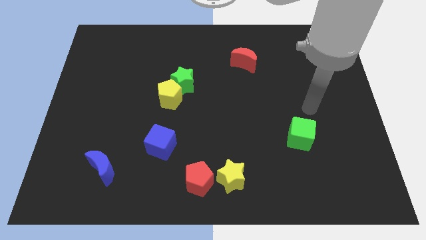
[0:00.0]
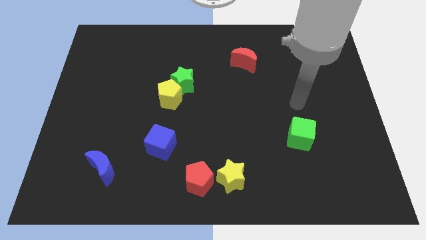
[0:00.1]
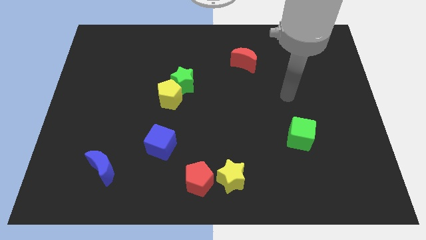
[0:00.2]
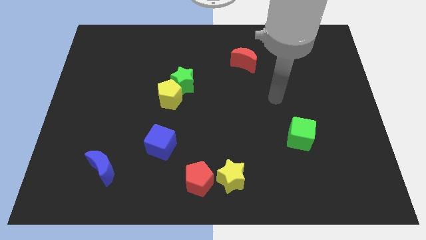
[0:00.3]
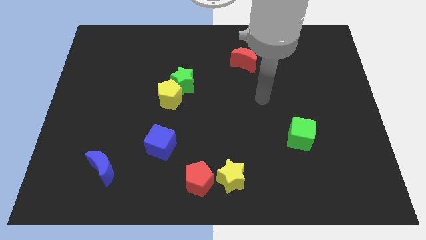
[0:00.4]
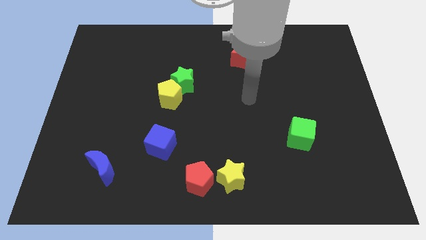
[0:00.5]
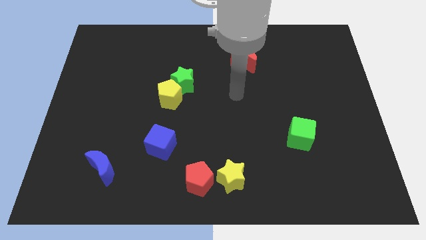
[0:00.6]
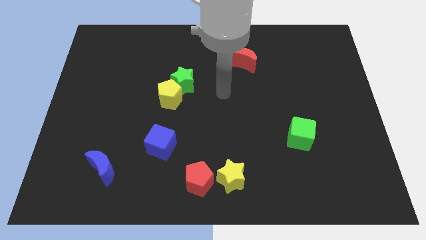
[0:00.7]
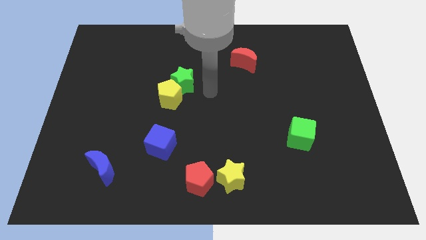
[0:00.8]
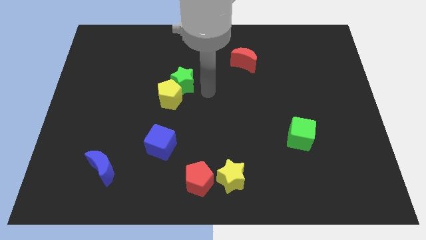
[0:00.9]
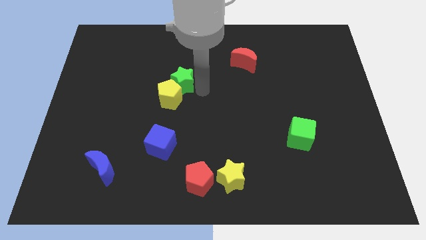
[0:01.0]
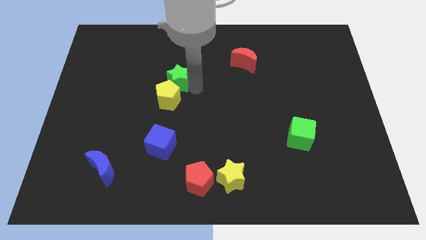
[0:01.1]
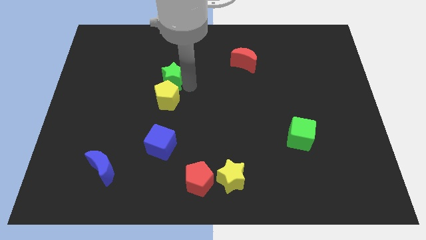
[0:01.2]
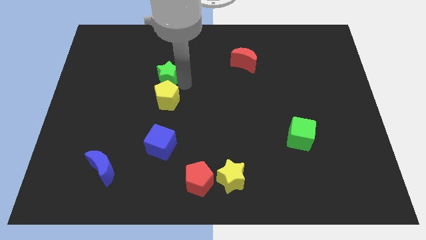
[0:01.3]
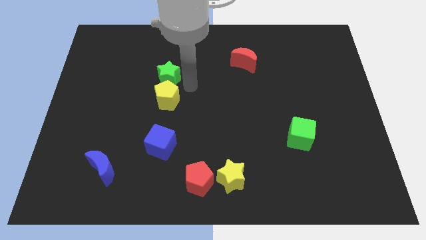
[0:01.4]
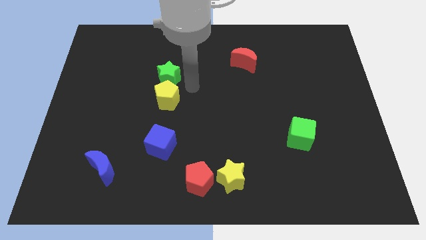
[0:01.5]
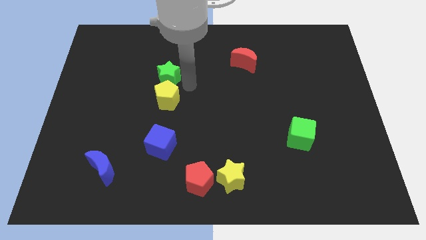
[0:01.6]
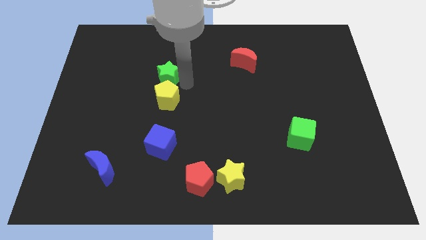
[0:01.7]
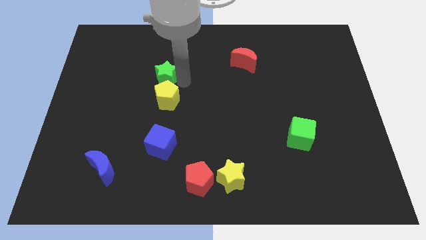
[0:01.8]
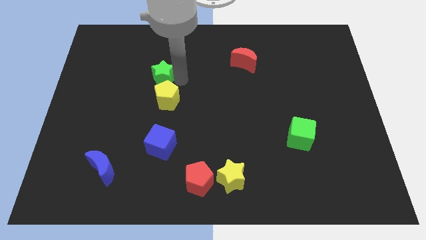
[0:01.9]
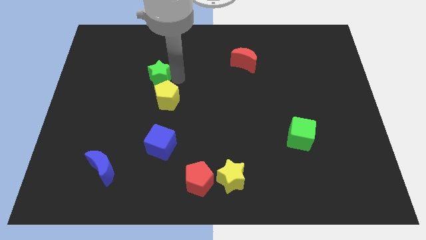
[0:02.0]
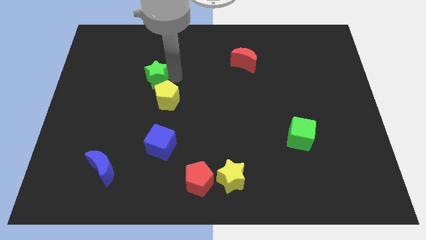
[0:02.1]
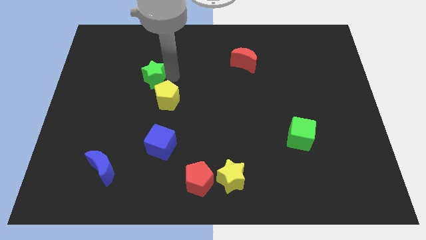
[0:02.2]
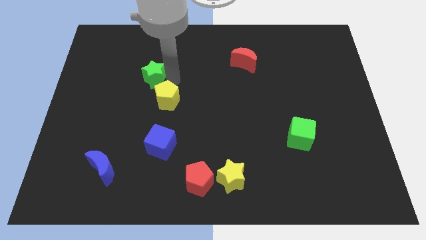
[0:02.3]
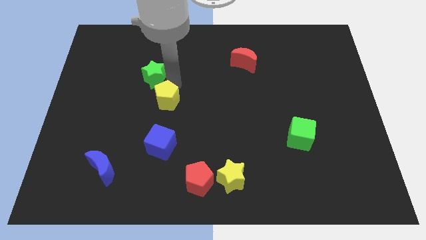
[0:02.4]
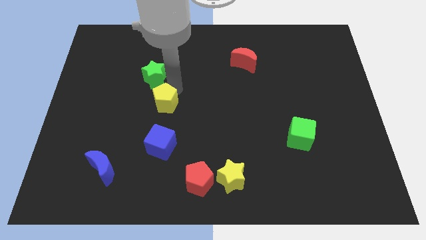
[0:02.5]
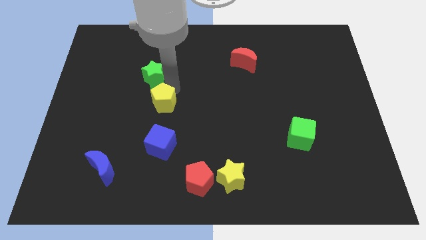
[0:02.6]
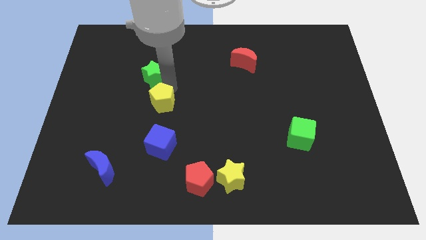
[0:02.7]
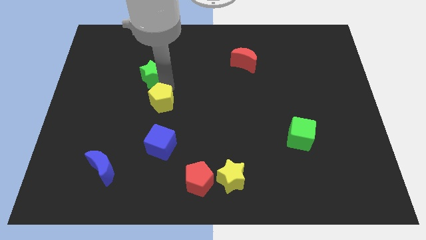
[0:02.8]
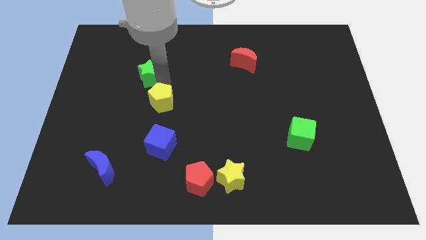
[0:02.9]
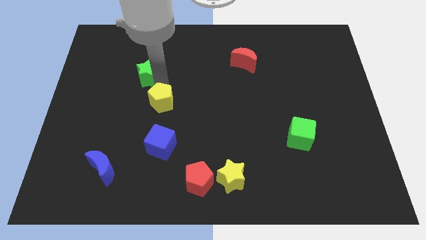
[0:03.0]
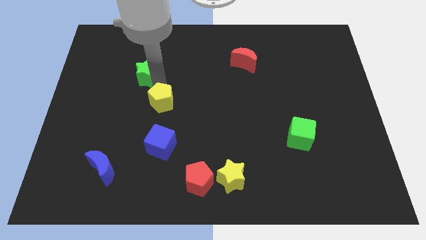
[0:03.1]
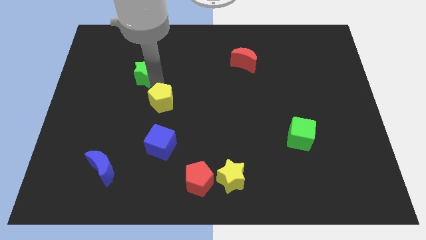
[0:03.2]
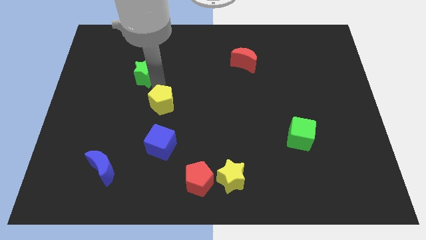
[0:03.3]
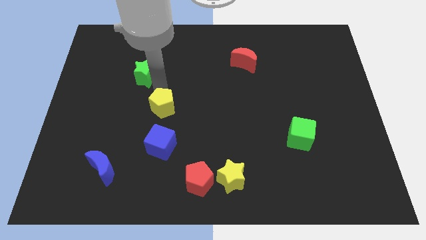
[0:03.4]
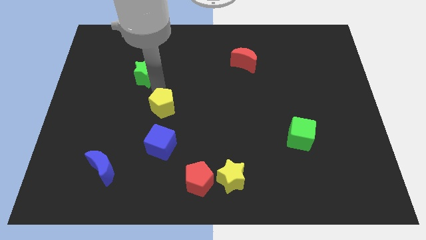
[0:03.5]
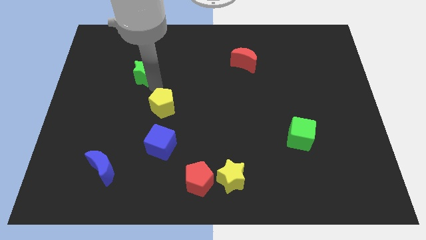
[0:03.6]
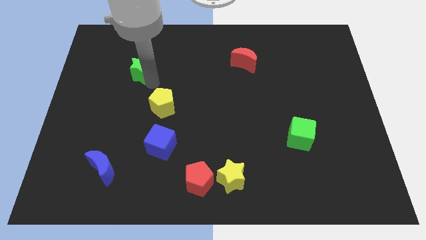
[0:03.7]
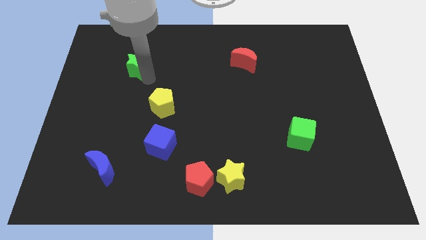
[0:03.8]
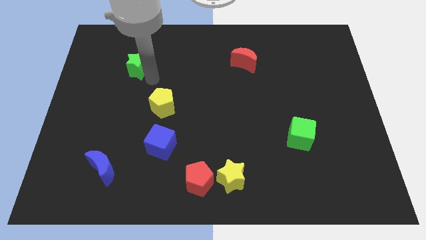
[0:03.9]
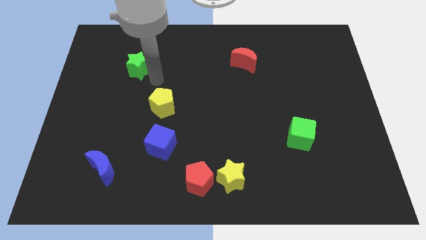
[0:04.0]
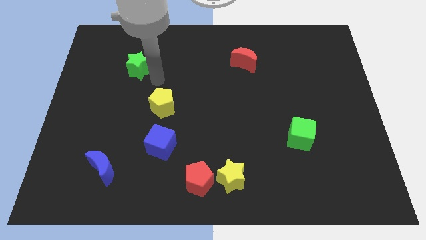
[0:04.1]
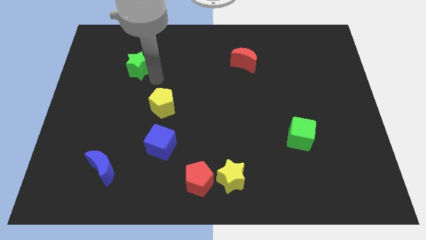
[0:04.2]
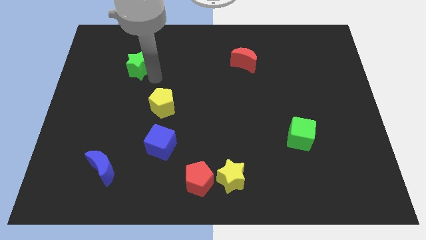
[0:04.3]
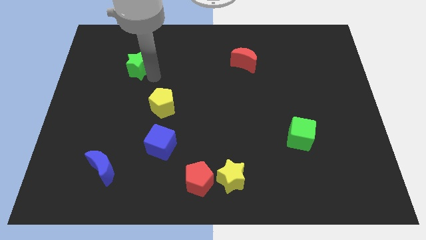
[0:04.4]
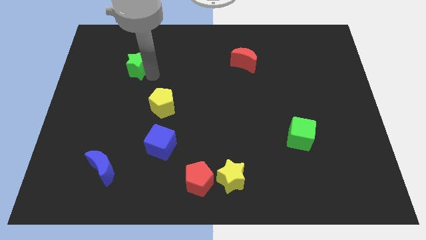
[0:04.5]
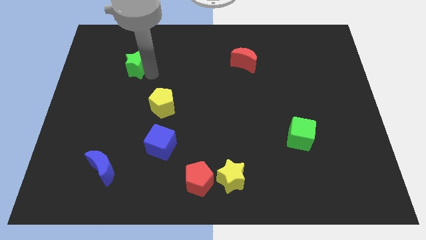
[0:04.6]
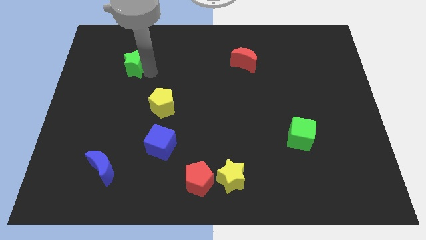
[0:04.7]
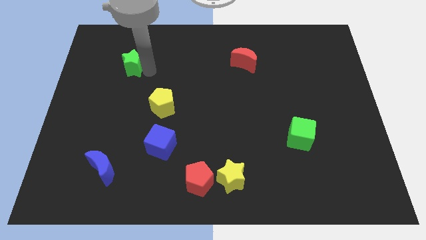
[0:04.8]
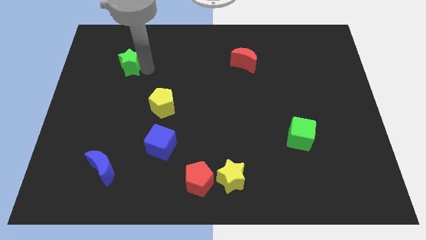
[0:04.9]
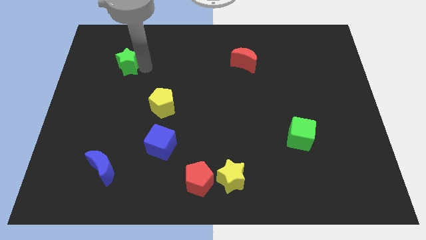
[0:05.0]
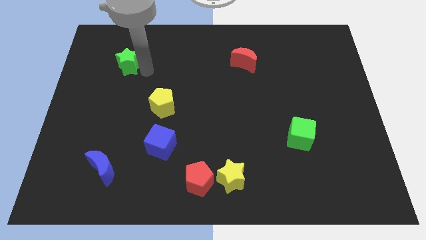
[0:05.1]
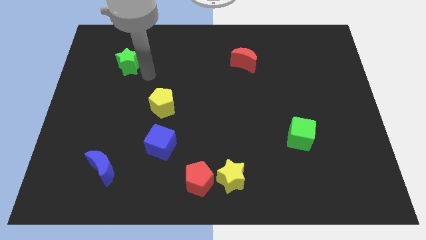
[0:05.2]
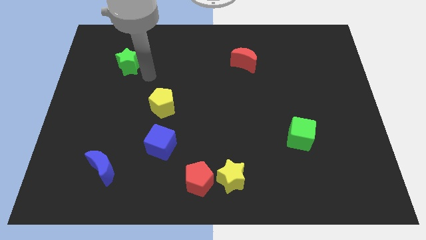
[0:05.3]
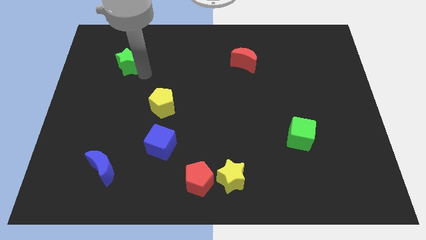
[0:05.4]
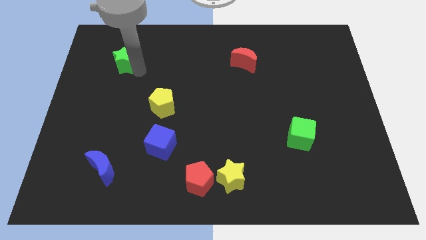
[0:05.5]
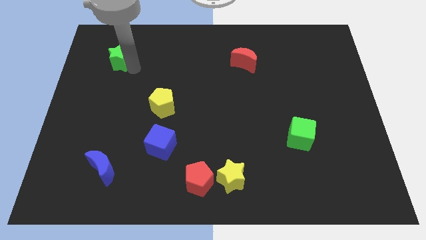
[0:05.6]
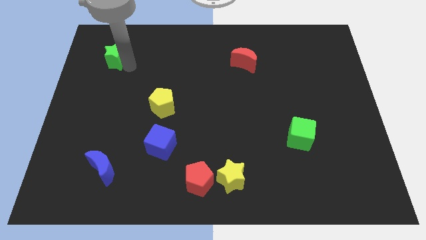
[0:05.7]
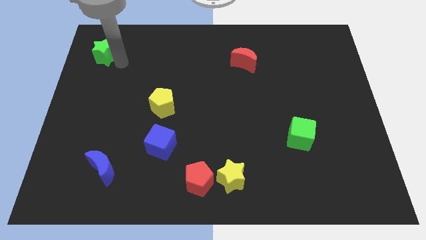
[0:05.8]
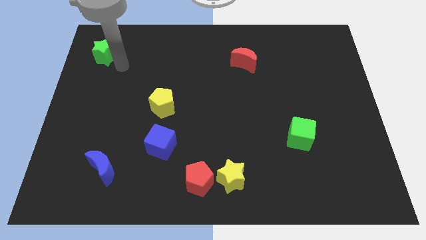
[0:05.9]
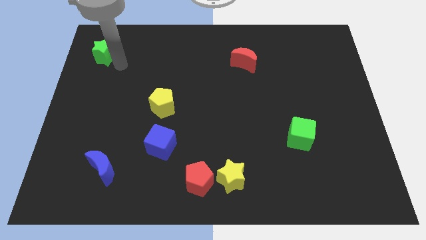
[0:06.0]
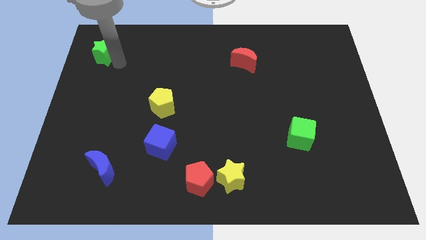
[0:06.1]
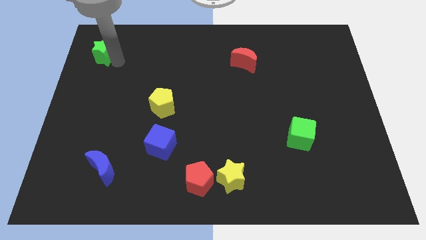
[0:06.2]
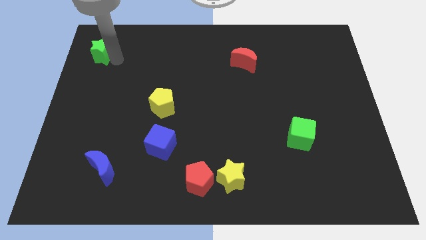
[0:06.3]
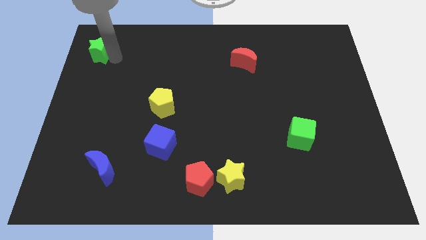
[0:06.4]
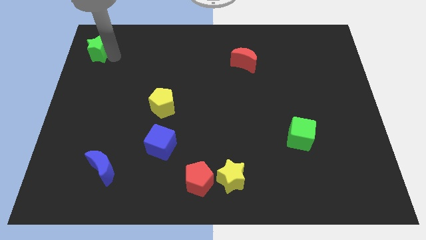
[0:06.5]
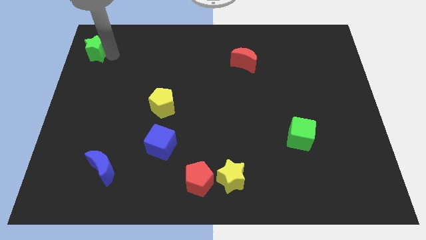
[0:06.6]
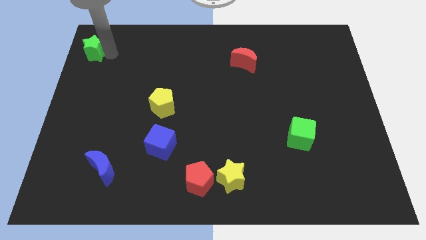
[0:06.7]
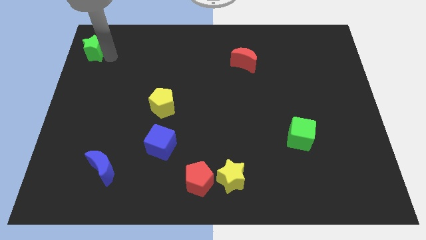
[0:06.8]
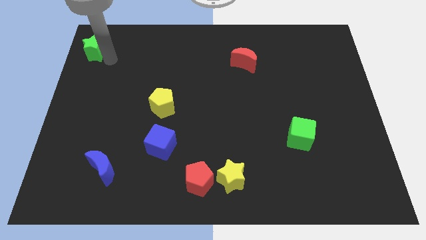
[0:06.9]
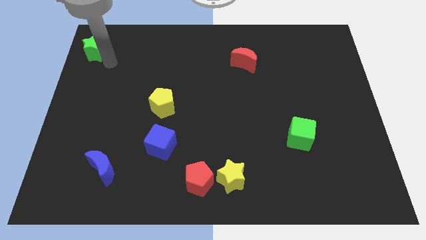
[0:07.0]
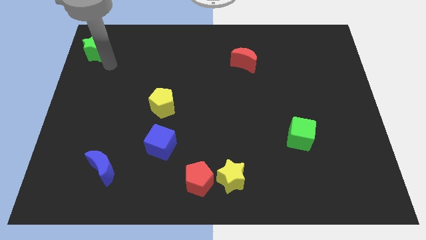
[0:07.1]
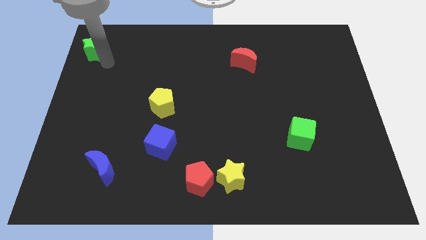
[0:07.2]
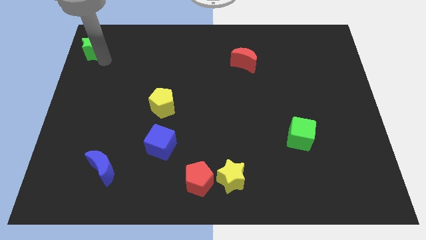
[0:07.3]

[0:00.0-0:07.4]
move the green star to the top left corner

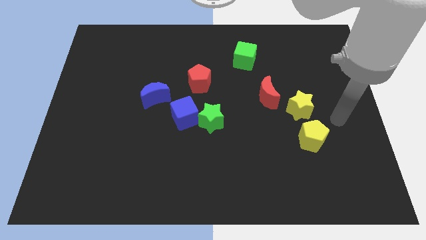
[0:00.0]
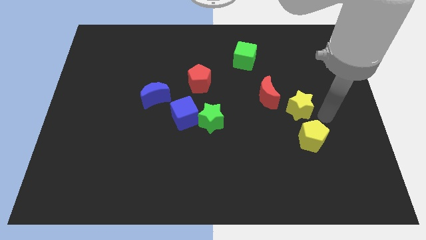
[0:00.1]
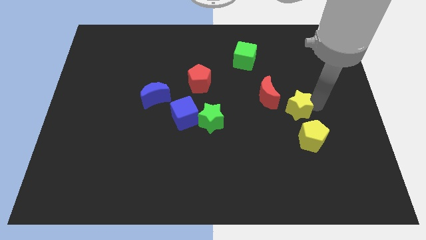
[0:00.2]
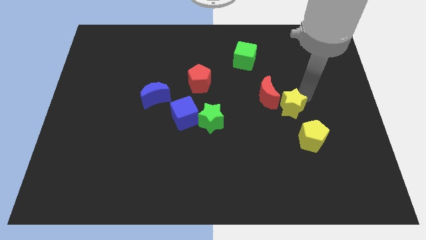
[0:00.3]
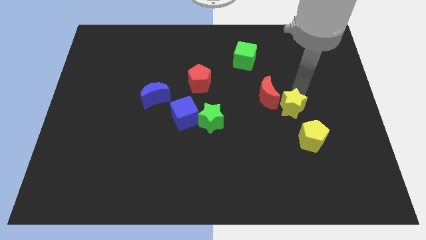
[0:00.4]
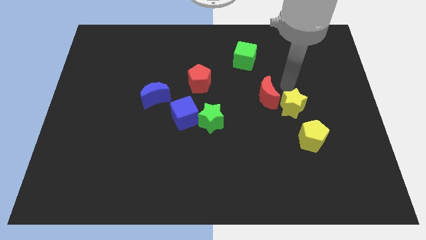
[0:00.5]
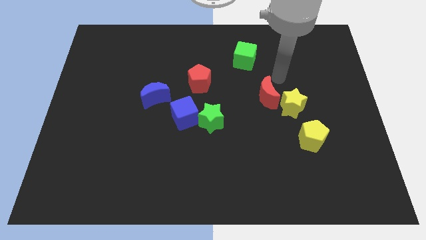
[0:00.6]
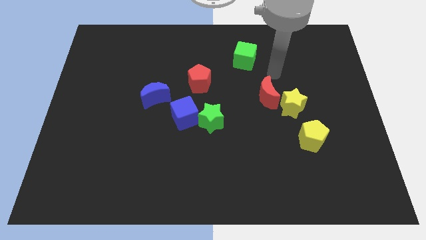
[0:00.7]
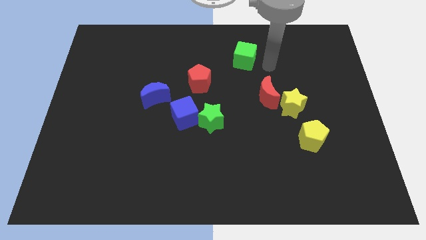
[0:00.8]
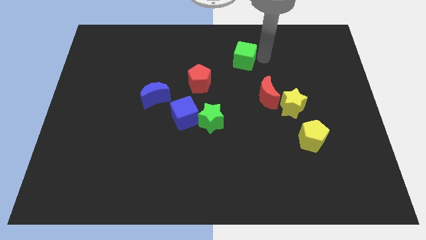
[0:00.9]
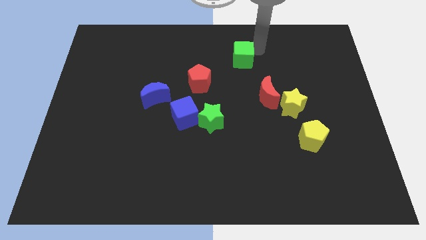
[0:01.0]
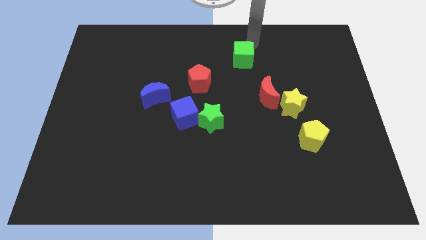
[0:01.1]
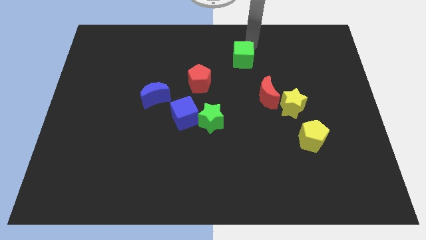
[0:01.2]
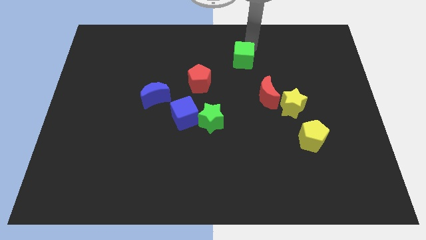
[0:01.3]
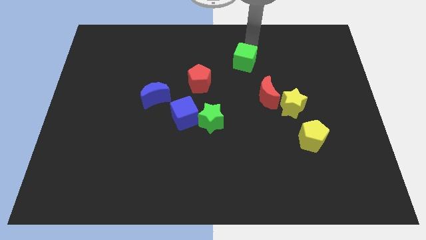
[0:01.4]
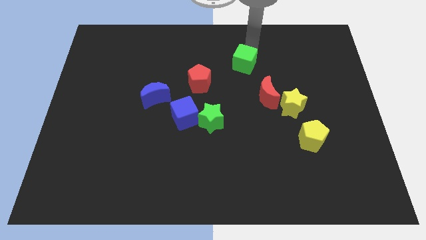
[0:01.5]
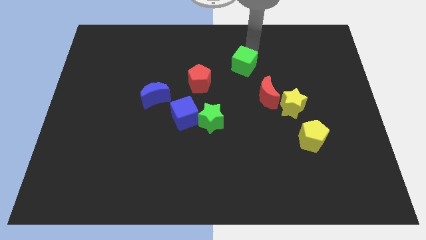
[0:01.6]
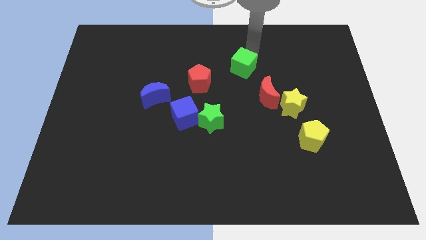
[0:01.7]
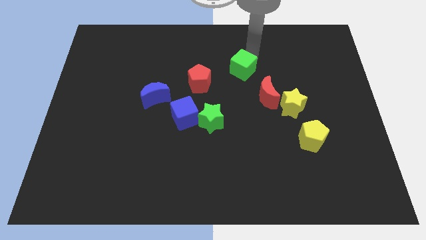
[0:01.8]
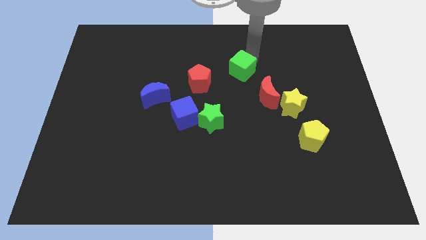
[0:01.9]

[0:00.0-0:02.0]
move the green cube to the center of the board
